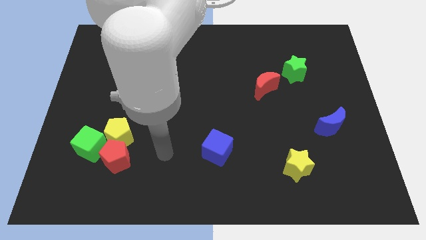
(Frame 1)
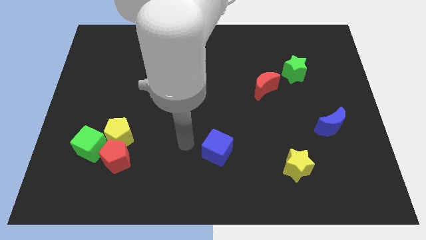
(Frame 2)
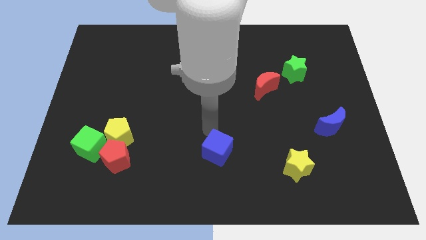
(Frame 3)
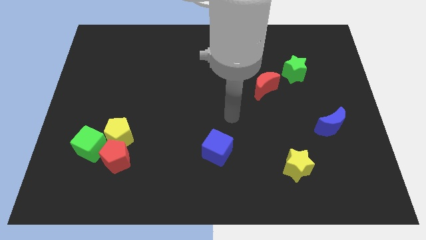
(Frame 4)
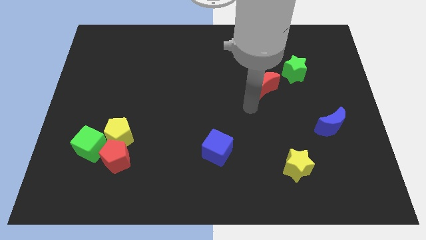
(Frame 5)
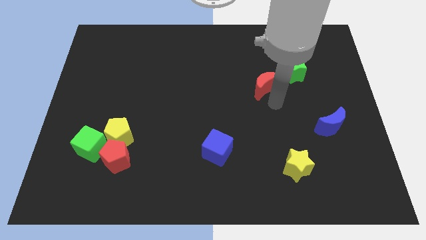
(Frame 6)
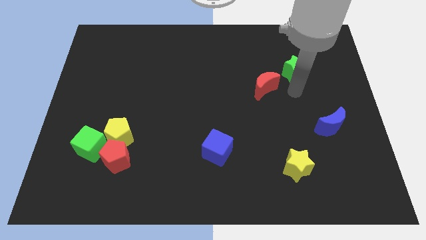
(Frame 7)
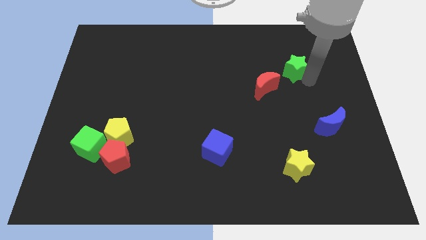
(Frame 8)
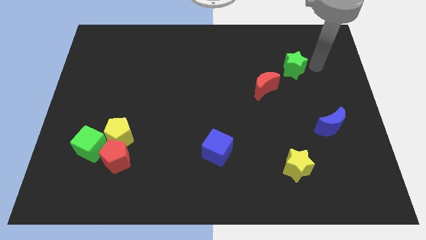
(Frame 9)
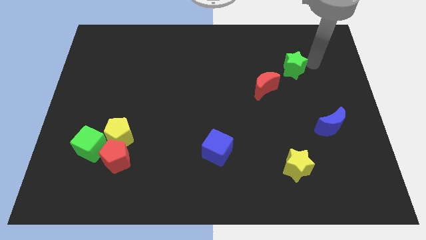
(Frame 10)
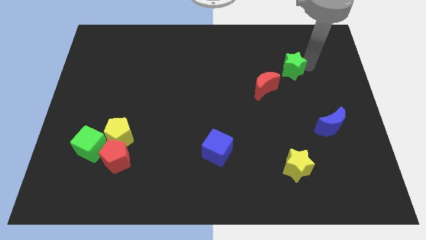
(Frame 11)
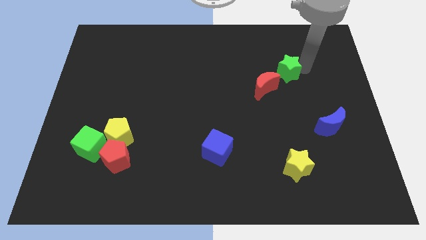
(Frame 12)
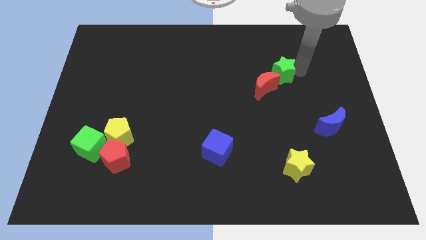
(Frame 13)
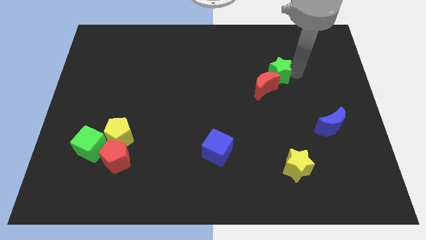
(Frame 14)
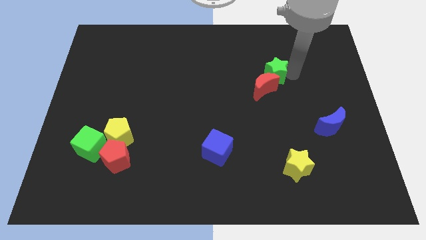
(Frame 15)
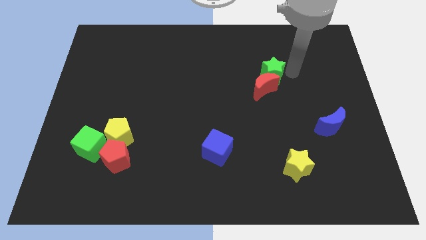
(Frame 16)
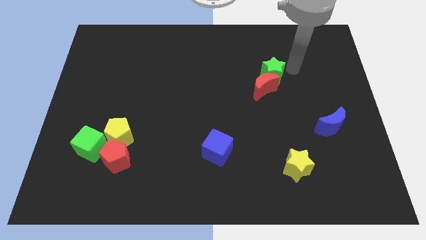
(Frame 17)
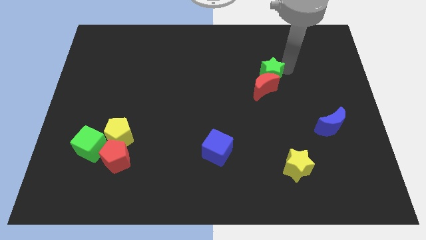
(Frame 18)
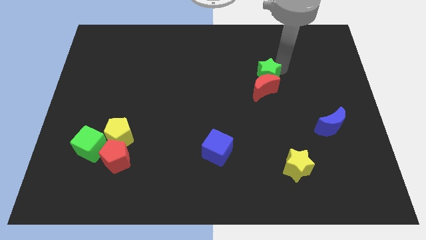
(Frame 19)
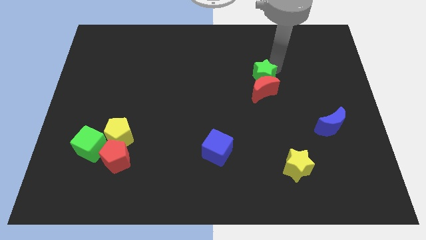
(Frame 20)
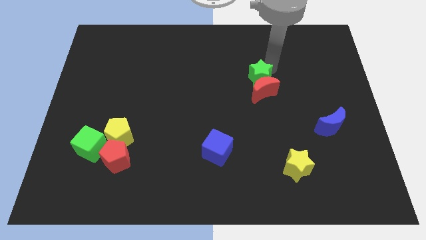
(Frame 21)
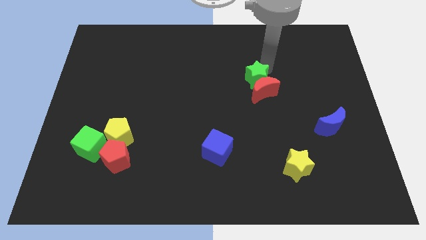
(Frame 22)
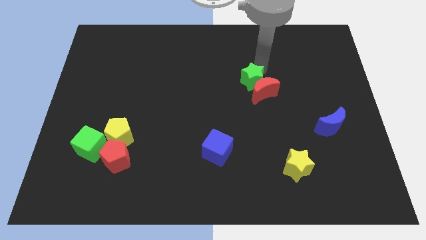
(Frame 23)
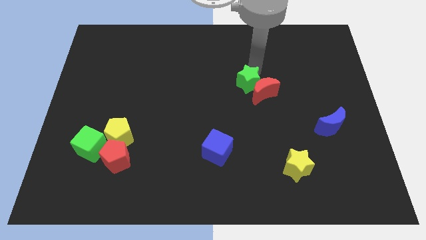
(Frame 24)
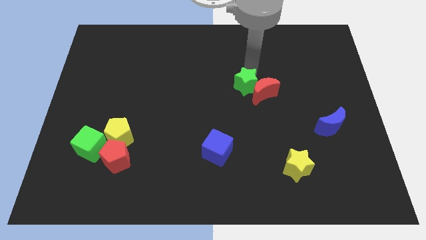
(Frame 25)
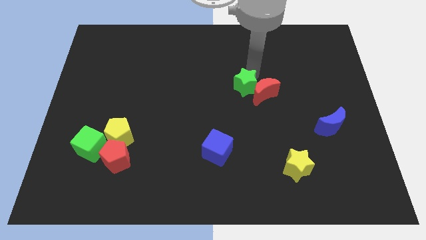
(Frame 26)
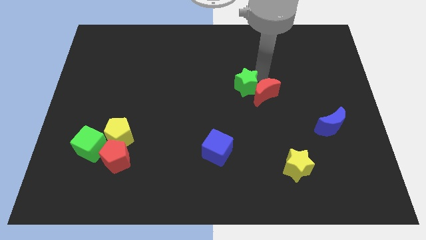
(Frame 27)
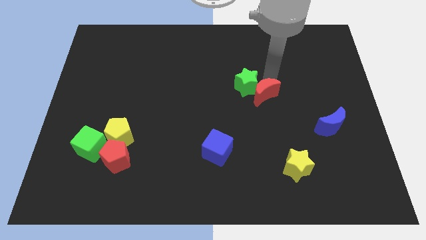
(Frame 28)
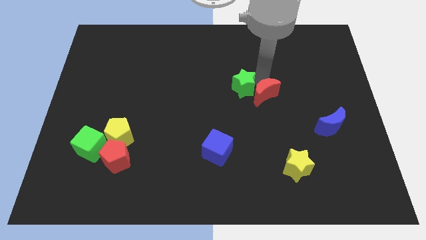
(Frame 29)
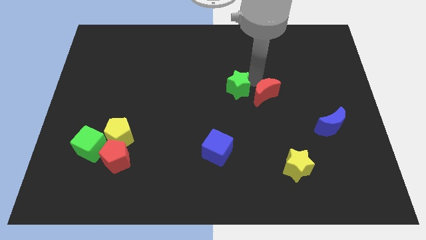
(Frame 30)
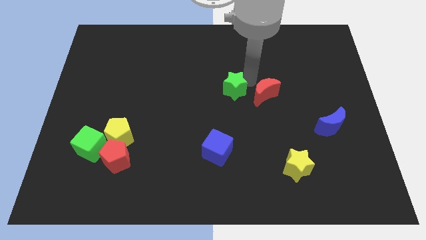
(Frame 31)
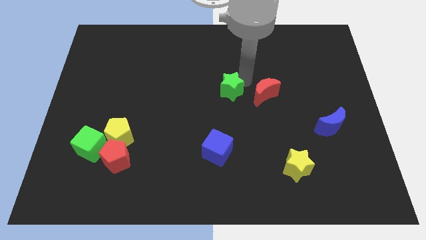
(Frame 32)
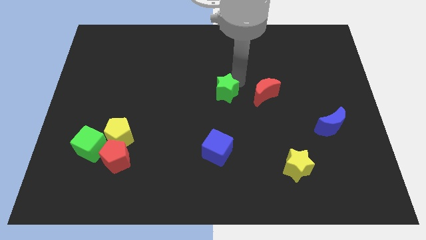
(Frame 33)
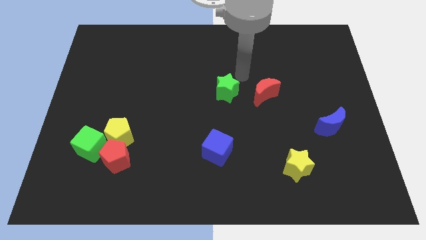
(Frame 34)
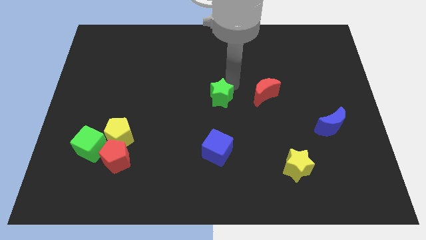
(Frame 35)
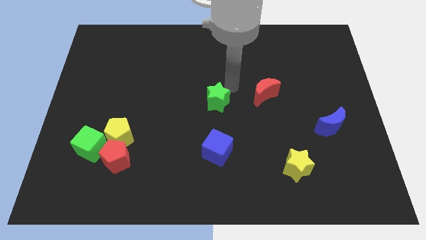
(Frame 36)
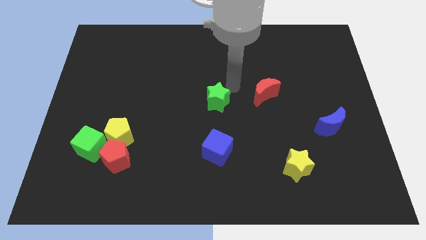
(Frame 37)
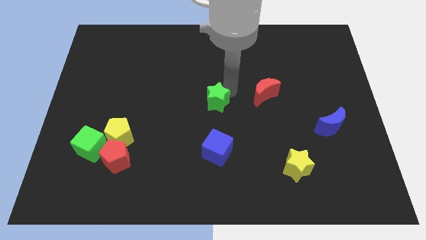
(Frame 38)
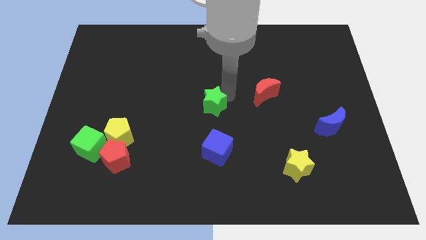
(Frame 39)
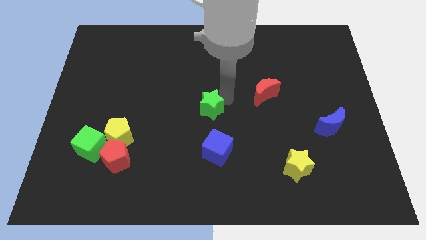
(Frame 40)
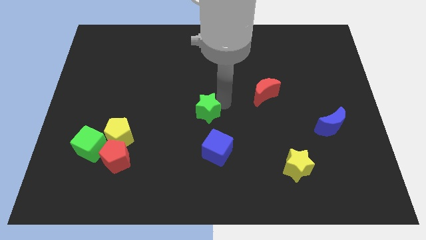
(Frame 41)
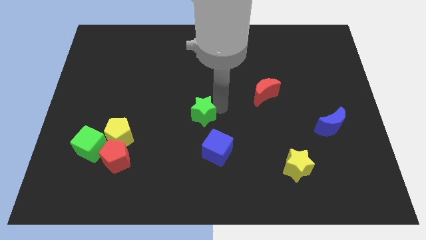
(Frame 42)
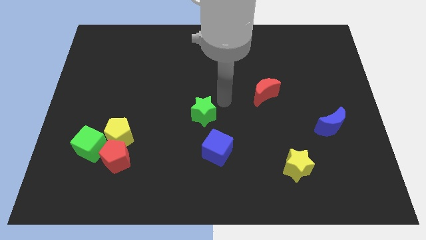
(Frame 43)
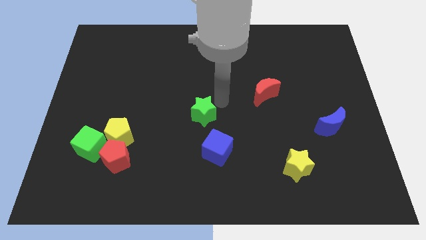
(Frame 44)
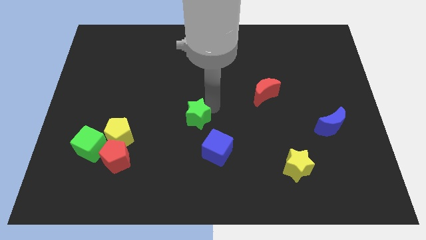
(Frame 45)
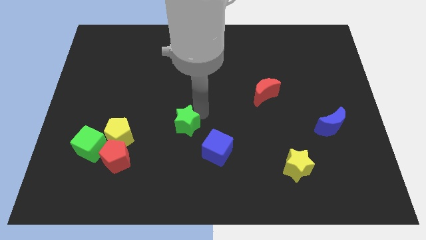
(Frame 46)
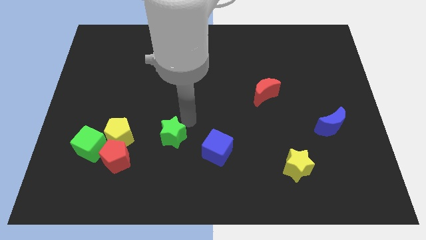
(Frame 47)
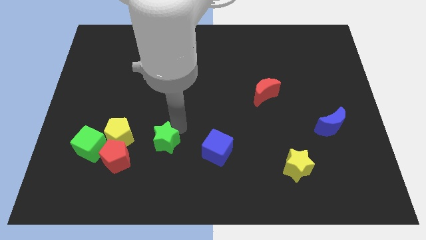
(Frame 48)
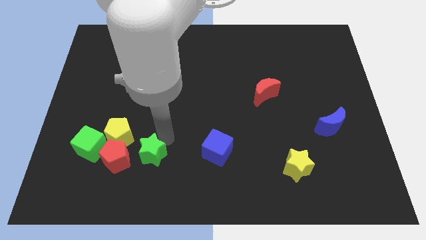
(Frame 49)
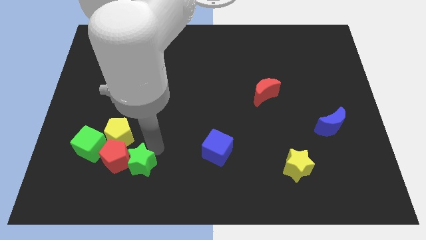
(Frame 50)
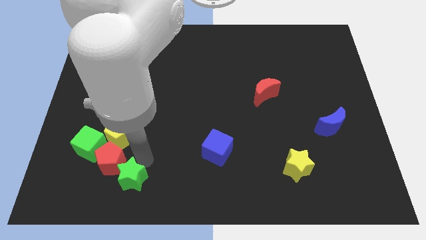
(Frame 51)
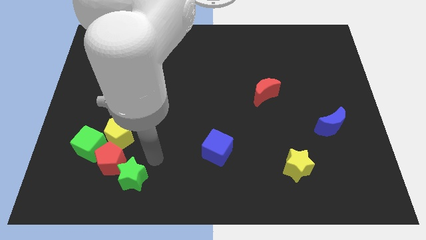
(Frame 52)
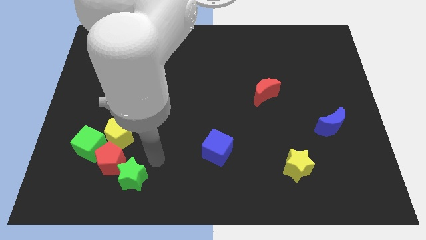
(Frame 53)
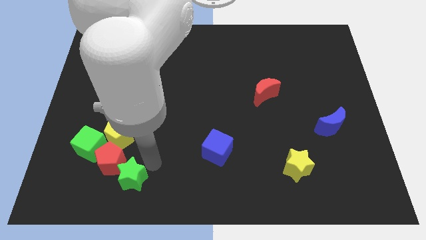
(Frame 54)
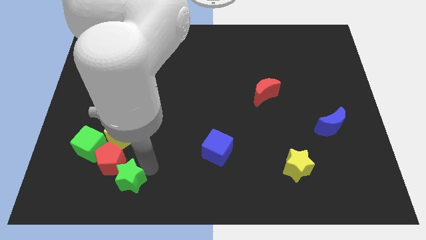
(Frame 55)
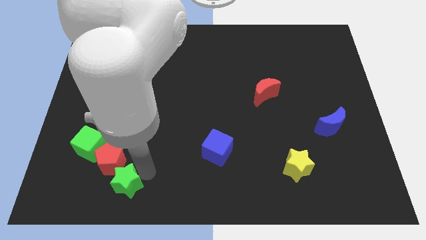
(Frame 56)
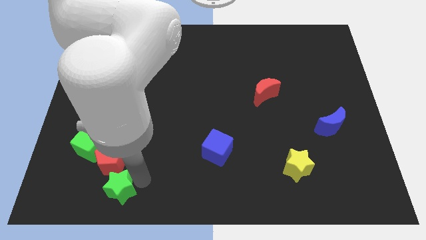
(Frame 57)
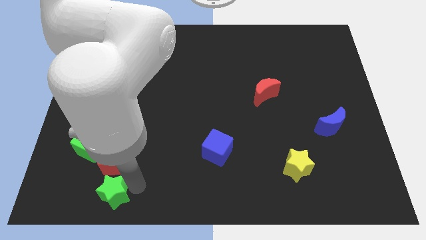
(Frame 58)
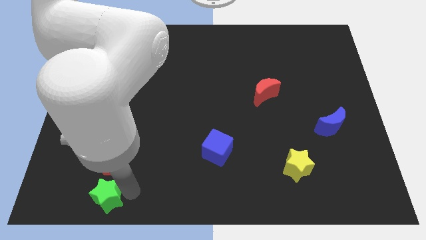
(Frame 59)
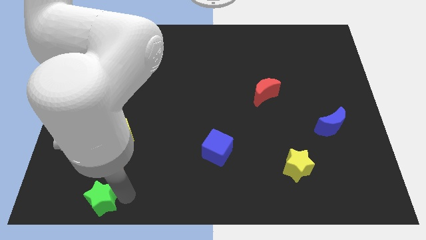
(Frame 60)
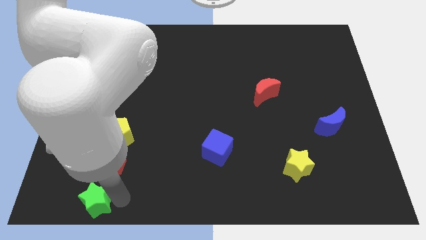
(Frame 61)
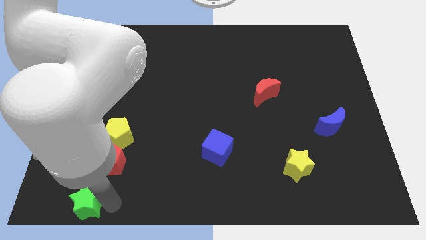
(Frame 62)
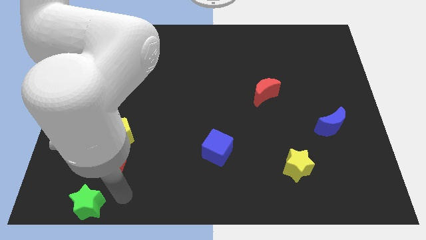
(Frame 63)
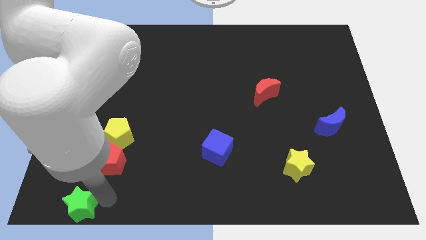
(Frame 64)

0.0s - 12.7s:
push the green star to the bottom left

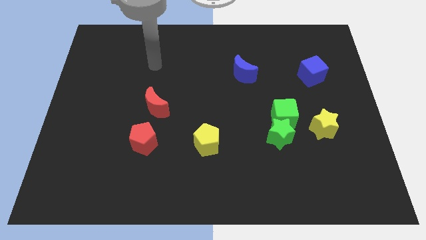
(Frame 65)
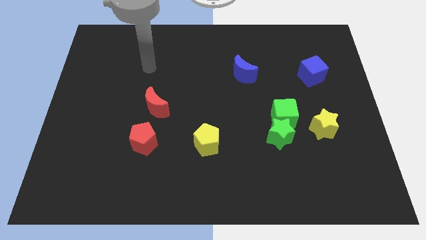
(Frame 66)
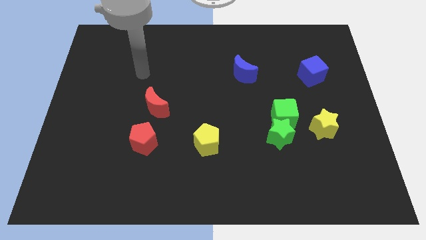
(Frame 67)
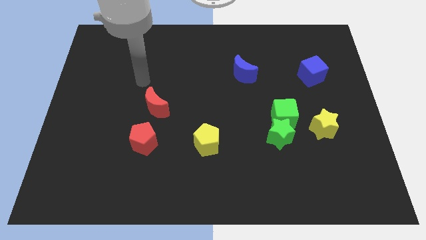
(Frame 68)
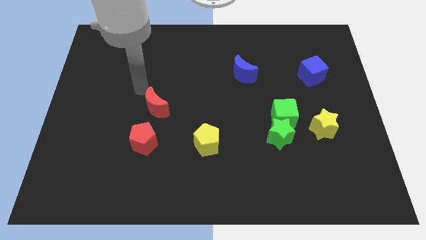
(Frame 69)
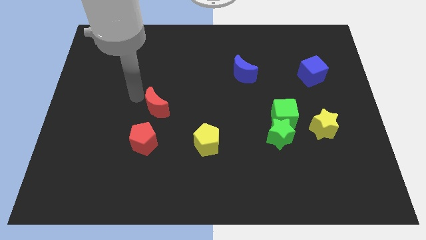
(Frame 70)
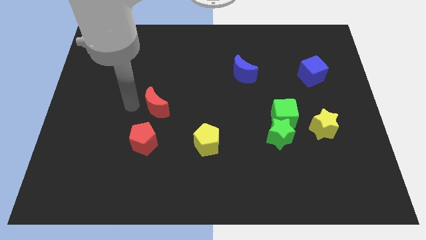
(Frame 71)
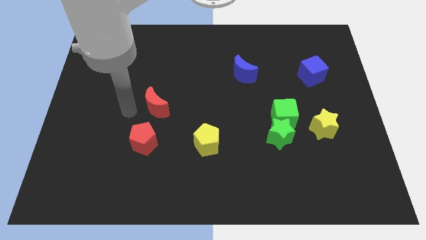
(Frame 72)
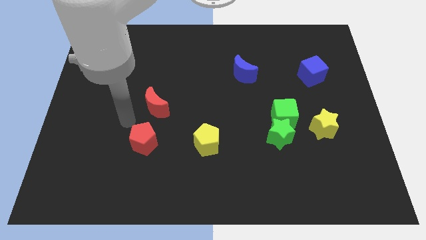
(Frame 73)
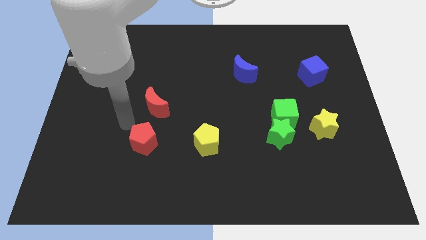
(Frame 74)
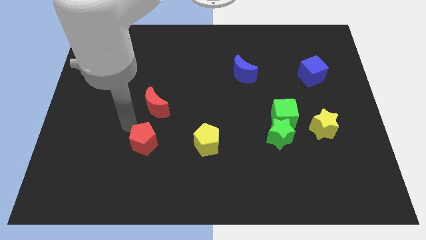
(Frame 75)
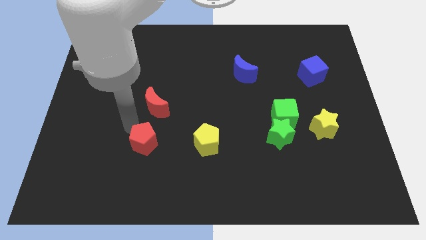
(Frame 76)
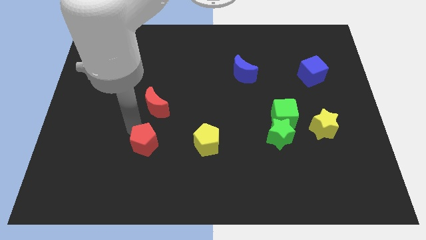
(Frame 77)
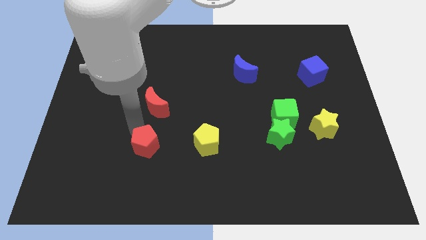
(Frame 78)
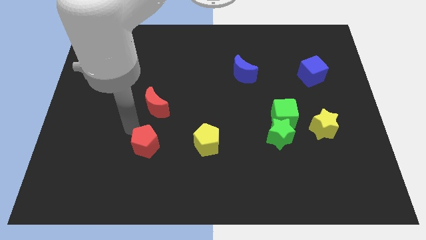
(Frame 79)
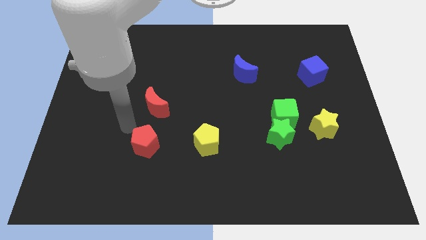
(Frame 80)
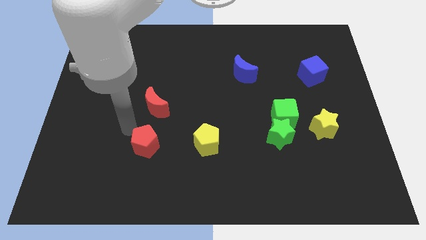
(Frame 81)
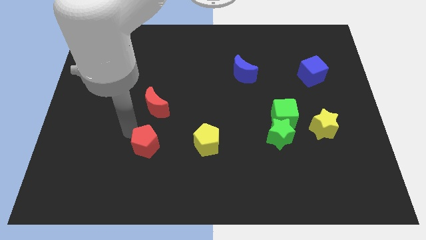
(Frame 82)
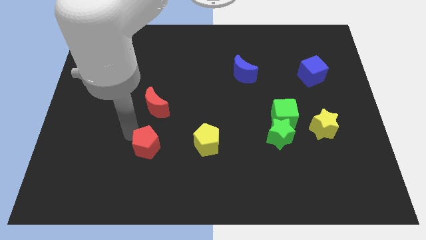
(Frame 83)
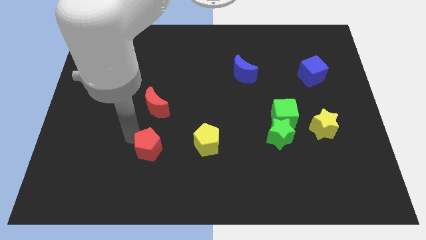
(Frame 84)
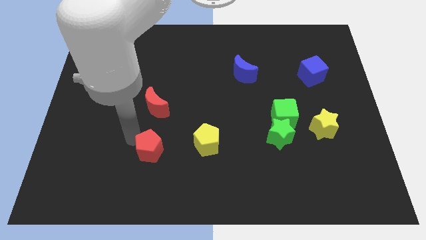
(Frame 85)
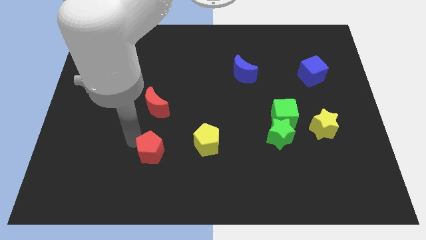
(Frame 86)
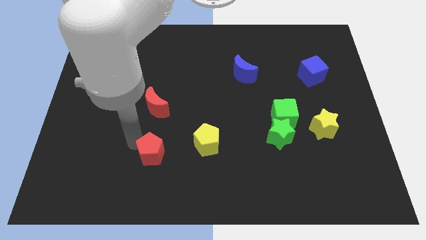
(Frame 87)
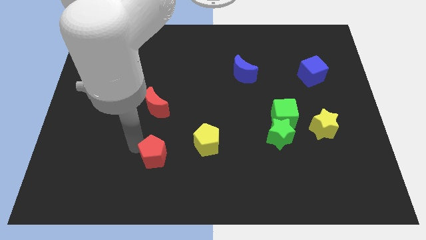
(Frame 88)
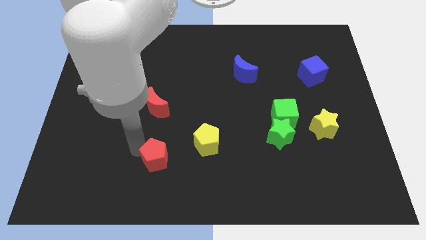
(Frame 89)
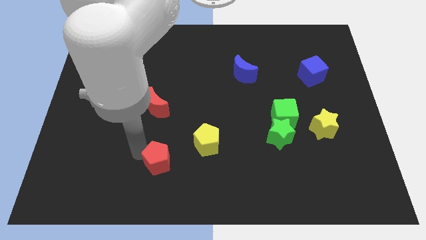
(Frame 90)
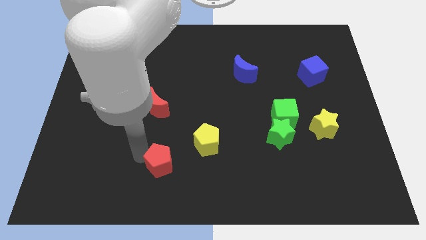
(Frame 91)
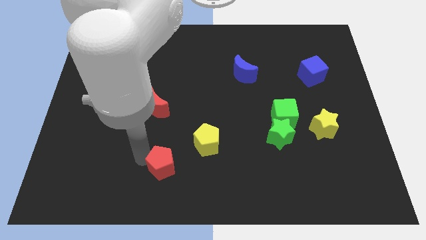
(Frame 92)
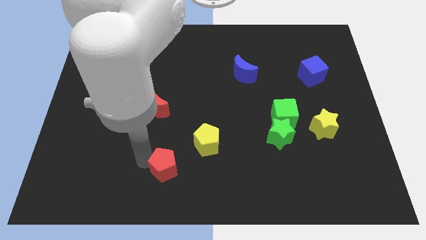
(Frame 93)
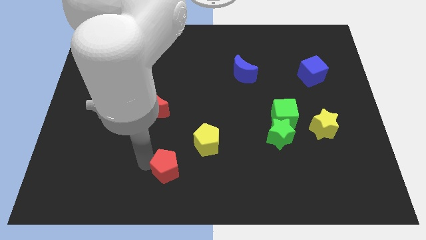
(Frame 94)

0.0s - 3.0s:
slide the red pentagon to the bottom side
